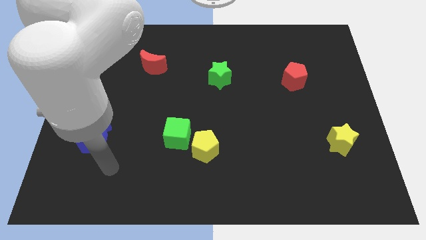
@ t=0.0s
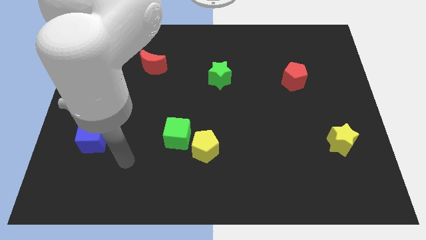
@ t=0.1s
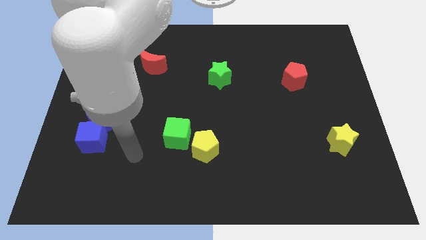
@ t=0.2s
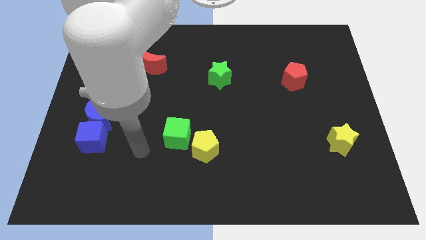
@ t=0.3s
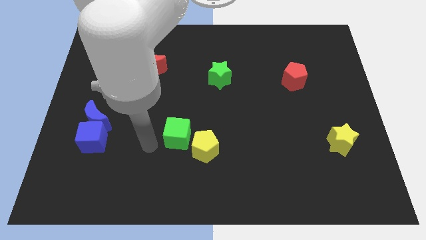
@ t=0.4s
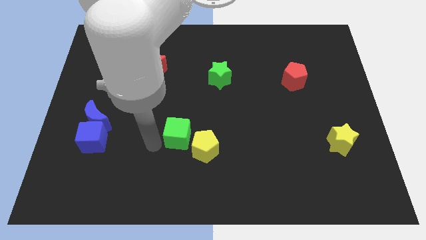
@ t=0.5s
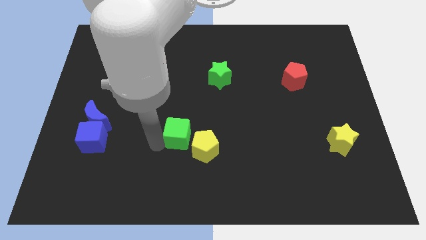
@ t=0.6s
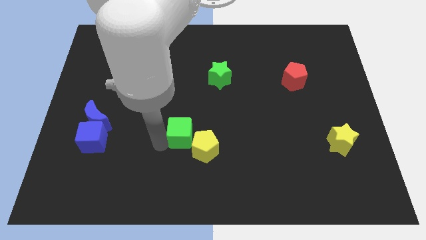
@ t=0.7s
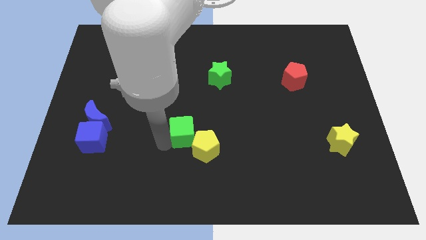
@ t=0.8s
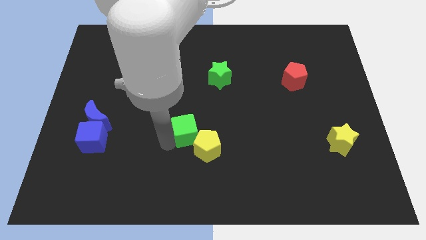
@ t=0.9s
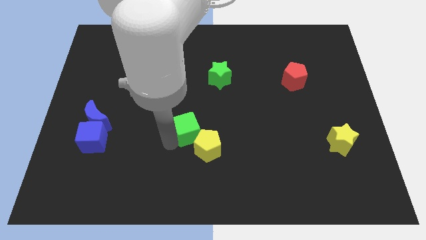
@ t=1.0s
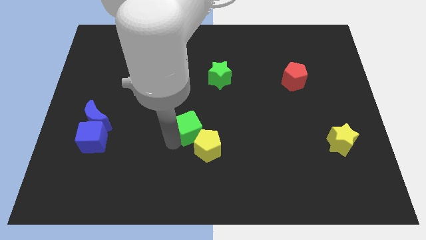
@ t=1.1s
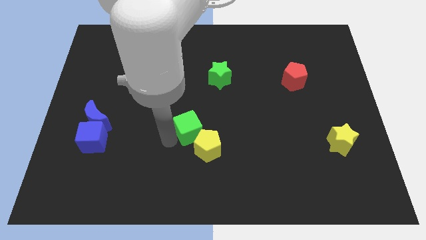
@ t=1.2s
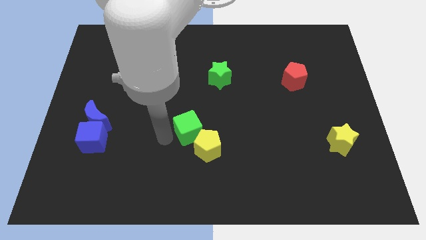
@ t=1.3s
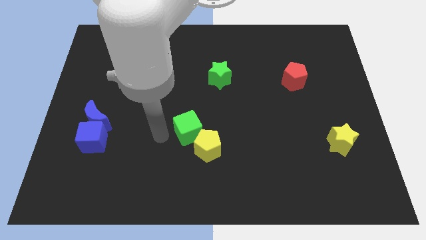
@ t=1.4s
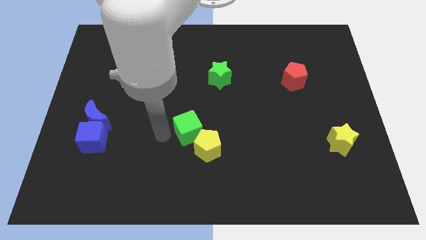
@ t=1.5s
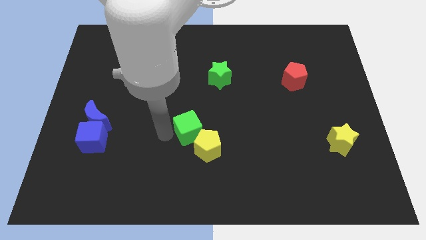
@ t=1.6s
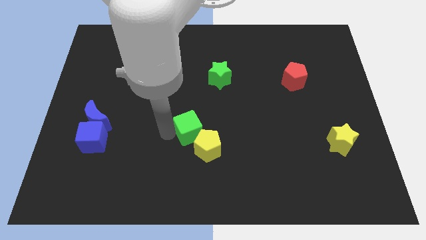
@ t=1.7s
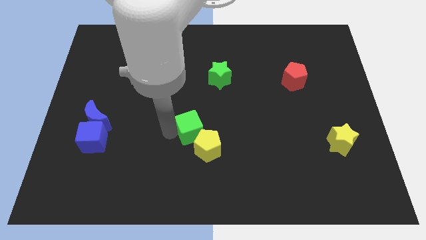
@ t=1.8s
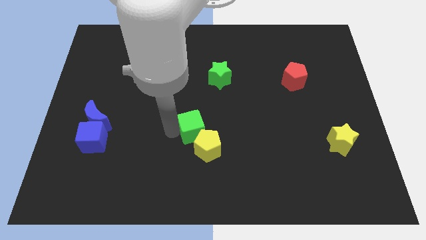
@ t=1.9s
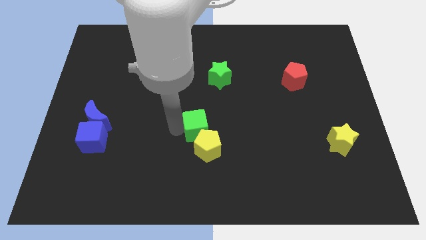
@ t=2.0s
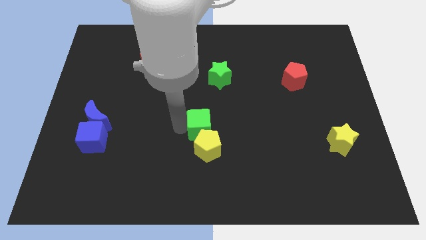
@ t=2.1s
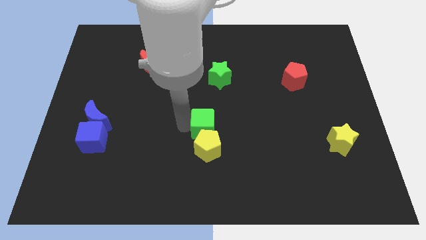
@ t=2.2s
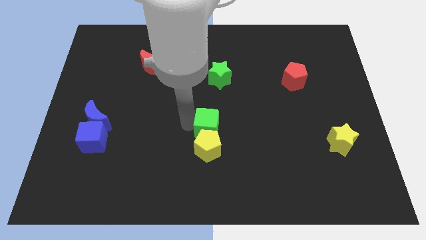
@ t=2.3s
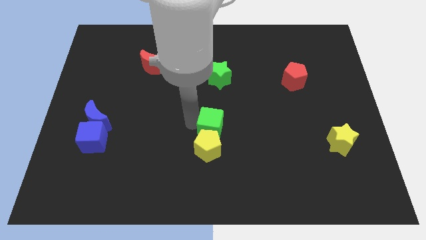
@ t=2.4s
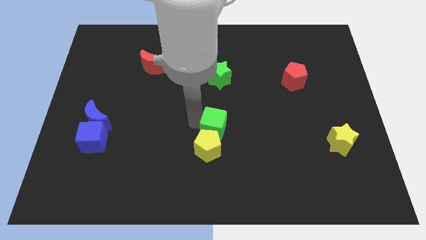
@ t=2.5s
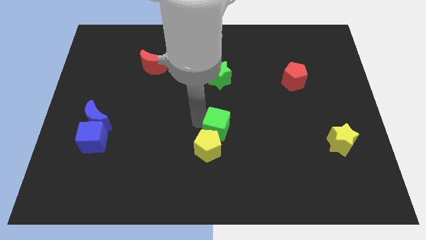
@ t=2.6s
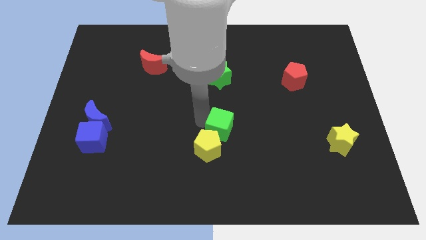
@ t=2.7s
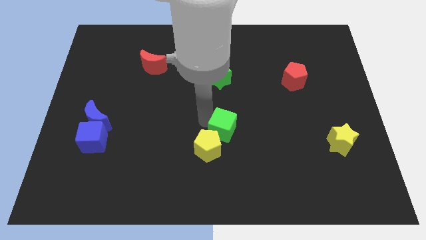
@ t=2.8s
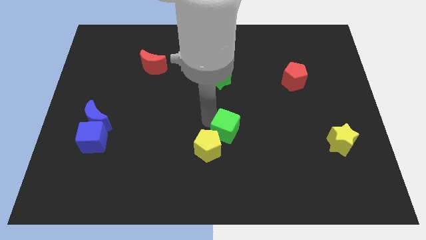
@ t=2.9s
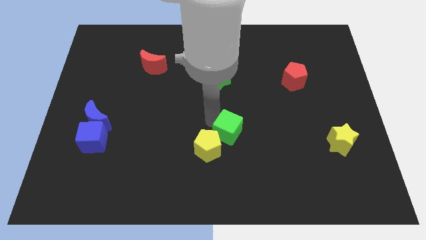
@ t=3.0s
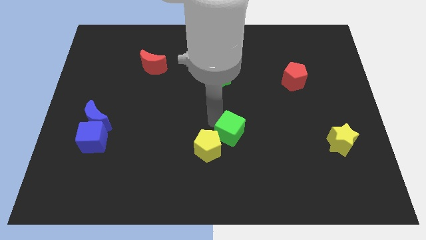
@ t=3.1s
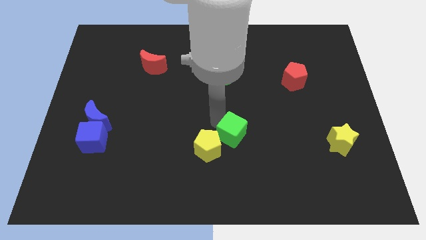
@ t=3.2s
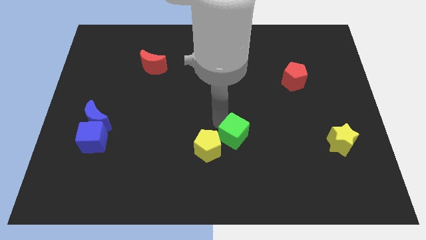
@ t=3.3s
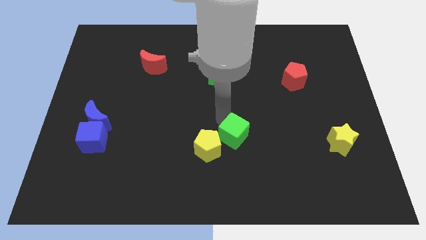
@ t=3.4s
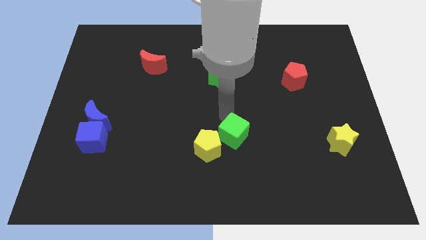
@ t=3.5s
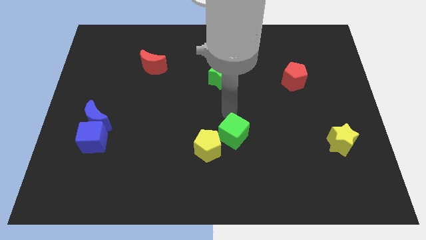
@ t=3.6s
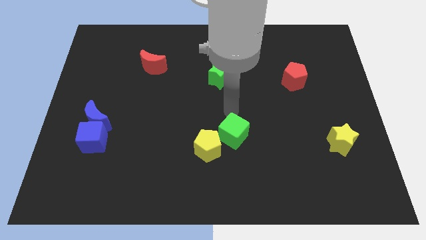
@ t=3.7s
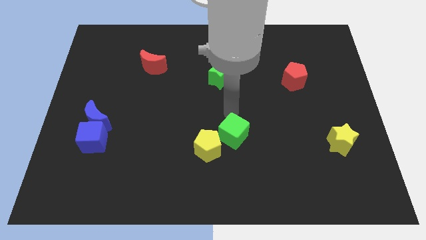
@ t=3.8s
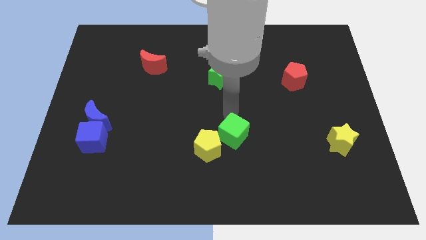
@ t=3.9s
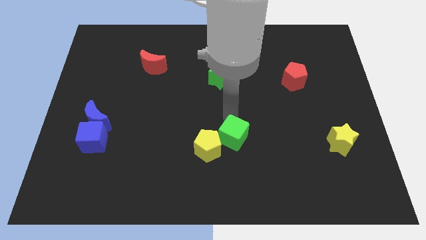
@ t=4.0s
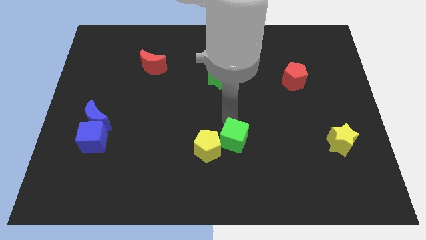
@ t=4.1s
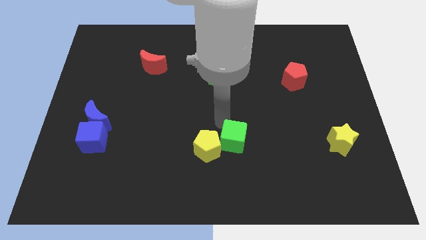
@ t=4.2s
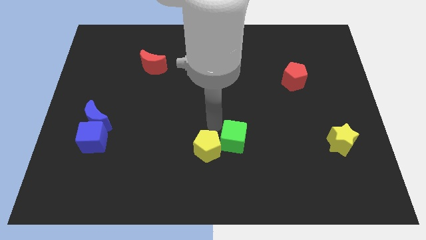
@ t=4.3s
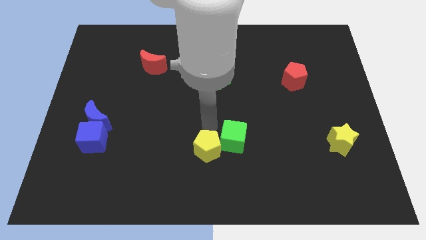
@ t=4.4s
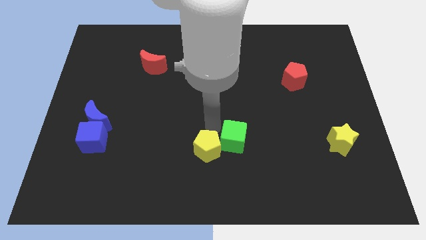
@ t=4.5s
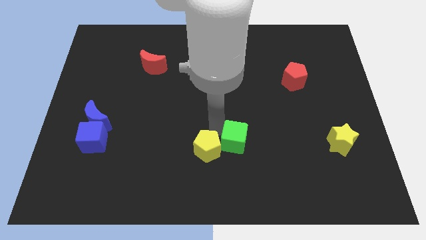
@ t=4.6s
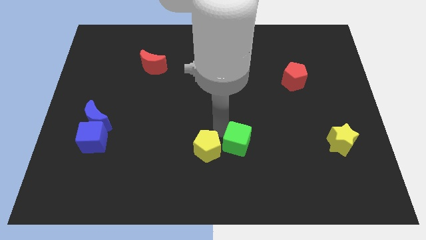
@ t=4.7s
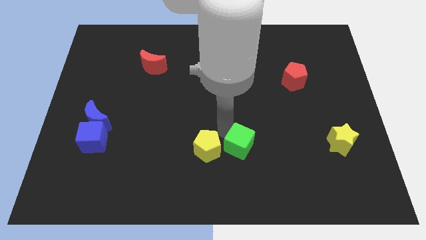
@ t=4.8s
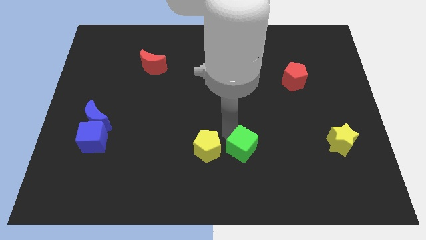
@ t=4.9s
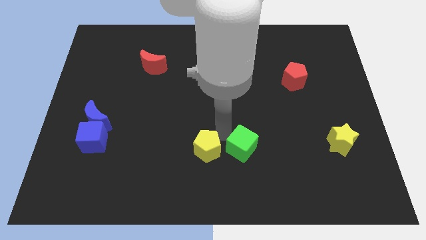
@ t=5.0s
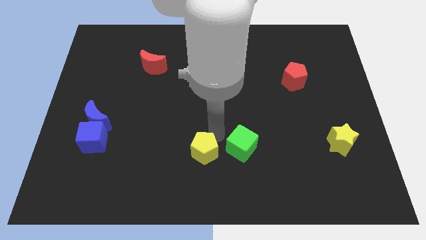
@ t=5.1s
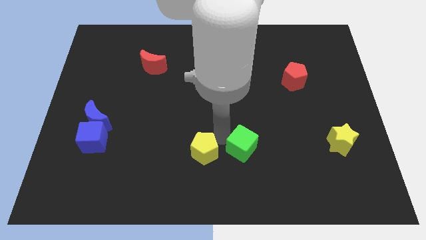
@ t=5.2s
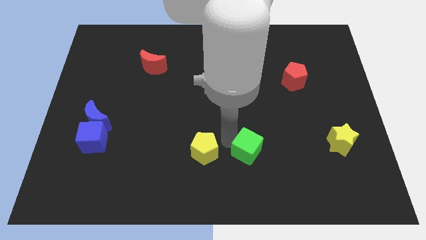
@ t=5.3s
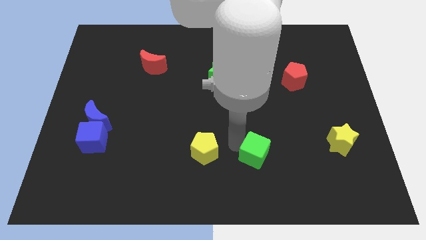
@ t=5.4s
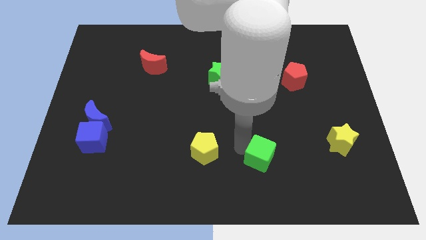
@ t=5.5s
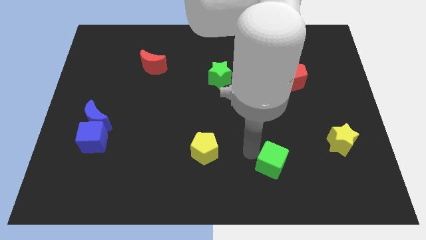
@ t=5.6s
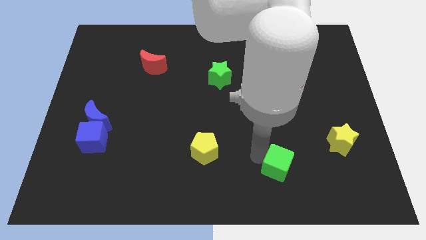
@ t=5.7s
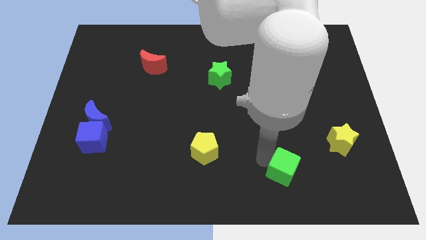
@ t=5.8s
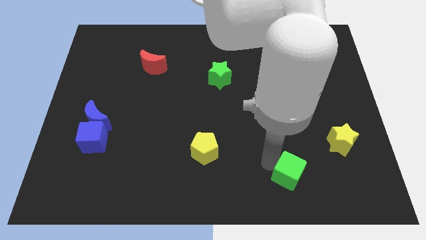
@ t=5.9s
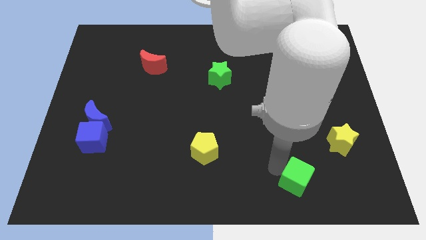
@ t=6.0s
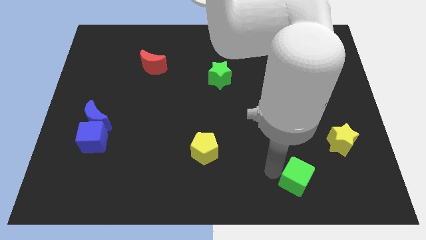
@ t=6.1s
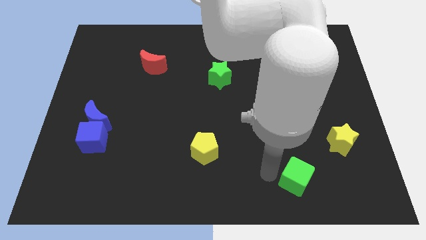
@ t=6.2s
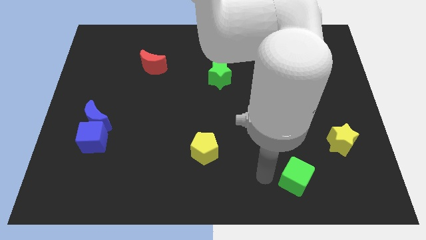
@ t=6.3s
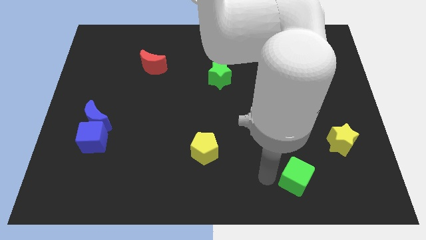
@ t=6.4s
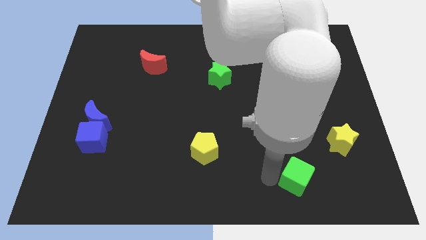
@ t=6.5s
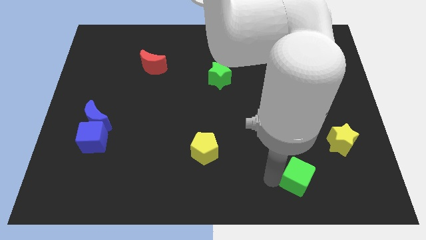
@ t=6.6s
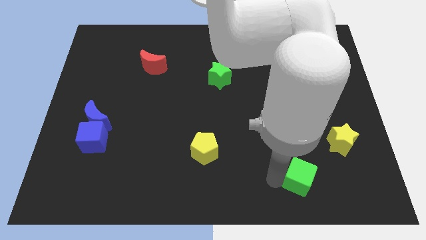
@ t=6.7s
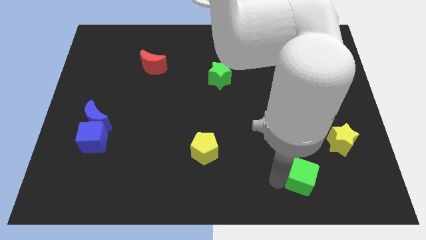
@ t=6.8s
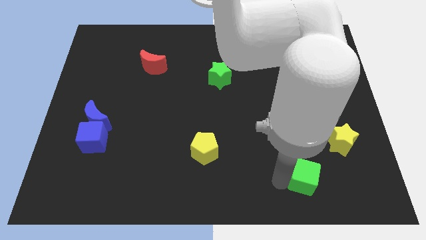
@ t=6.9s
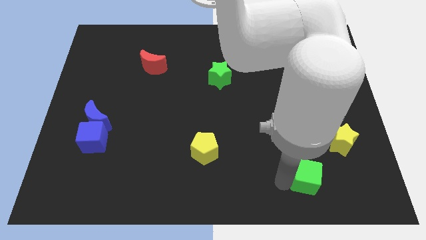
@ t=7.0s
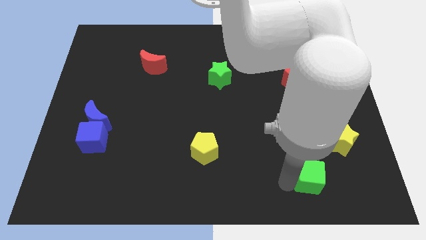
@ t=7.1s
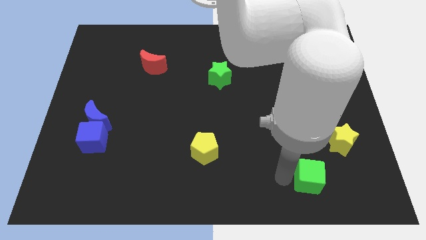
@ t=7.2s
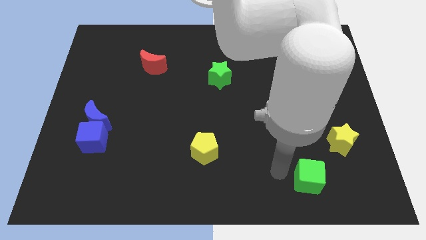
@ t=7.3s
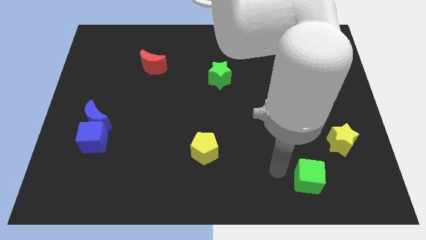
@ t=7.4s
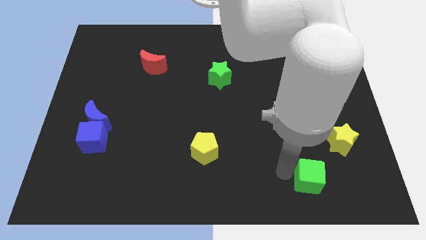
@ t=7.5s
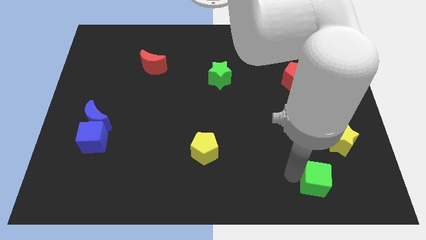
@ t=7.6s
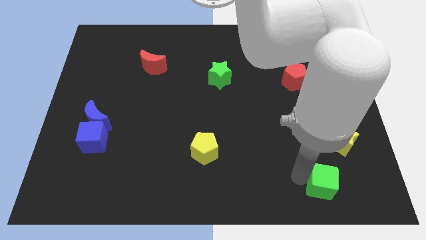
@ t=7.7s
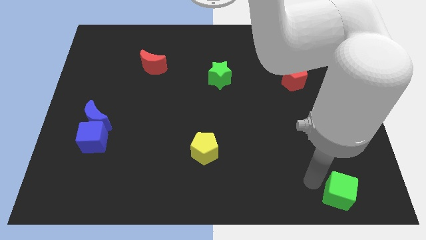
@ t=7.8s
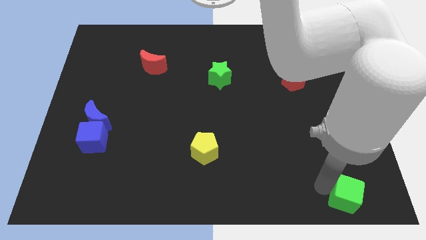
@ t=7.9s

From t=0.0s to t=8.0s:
push the green cube to the bottom right
